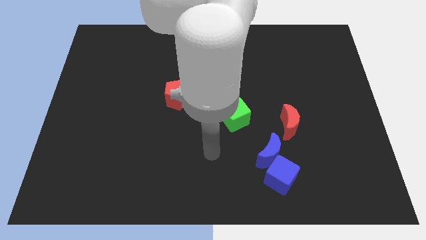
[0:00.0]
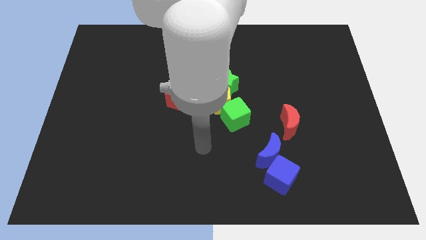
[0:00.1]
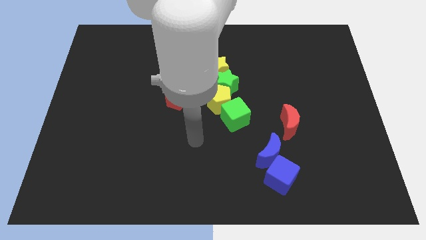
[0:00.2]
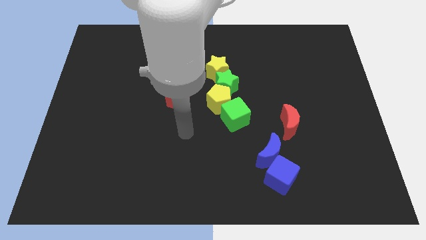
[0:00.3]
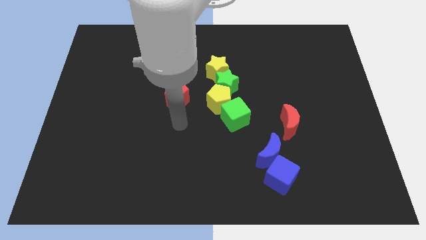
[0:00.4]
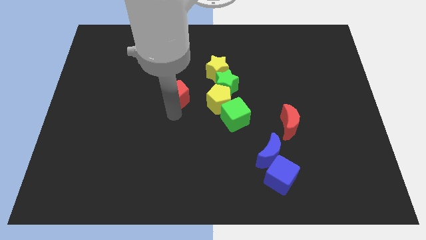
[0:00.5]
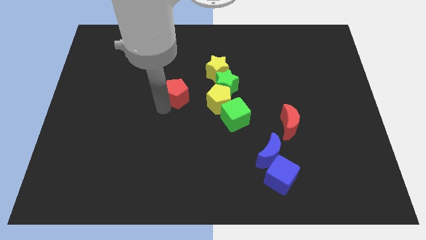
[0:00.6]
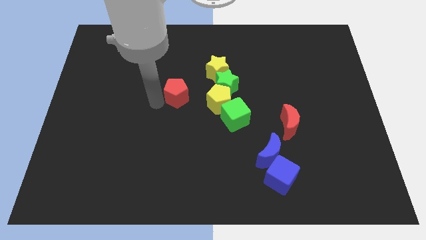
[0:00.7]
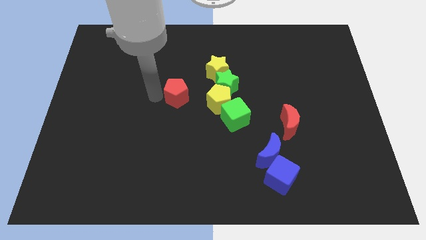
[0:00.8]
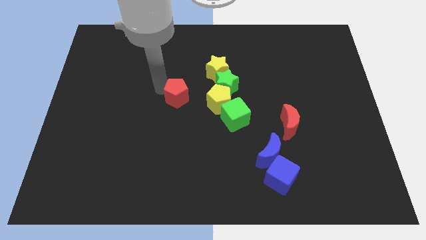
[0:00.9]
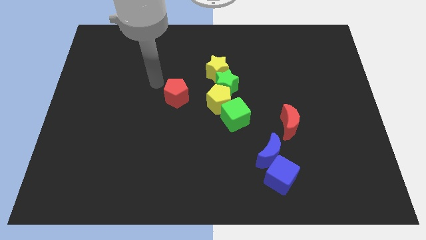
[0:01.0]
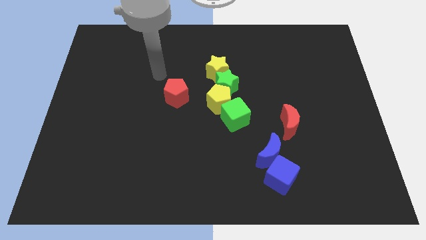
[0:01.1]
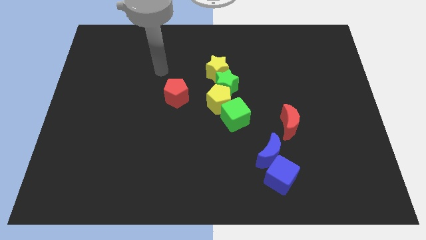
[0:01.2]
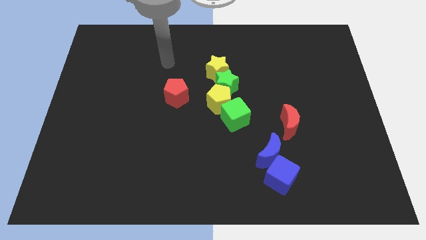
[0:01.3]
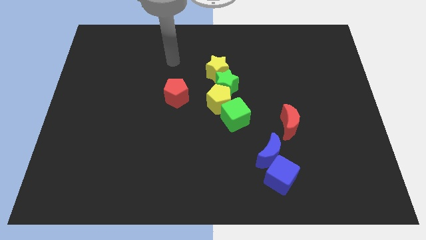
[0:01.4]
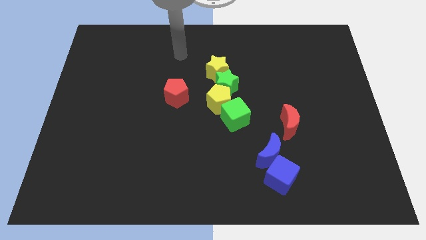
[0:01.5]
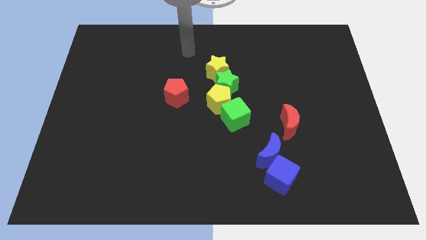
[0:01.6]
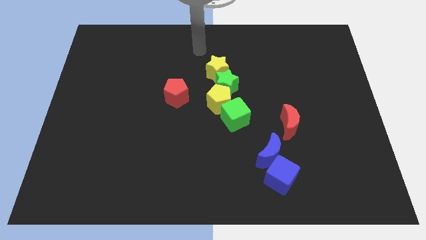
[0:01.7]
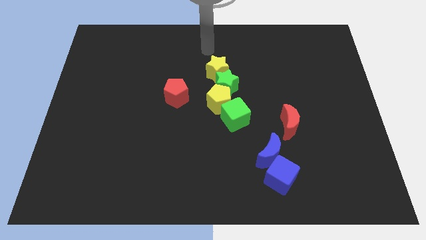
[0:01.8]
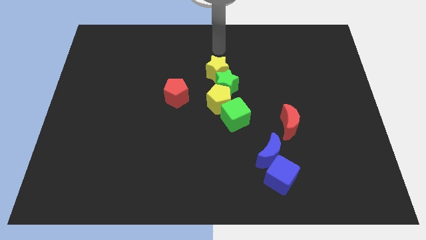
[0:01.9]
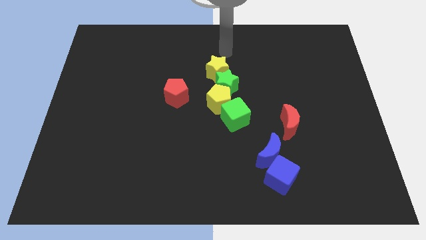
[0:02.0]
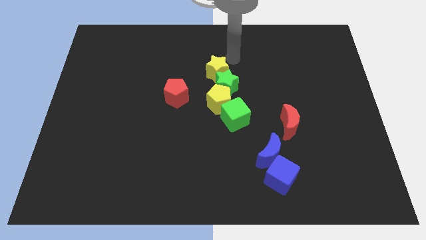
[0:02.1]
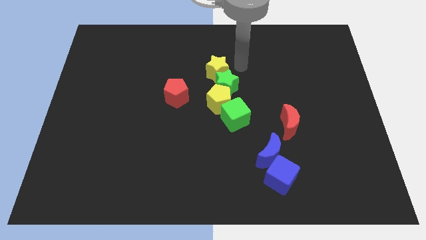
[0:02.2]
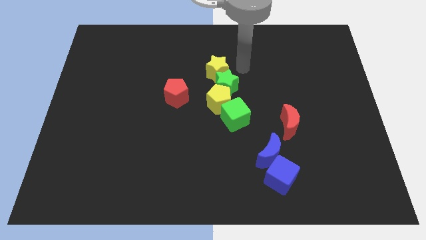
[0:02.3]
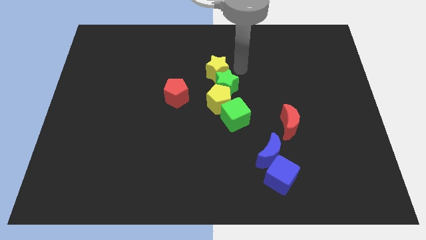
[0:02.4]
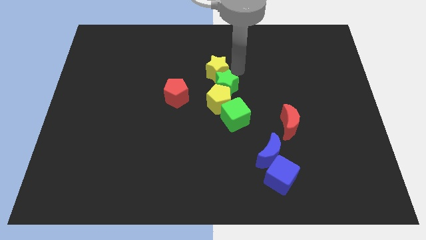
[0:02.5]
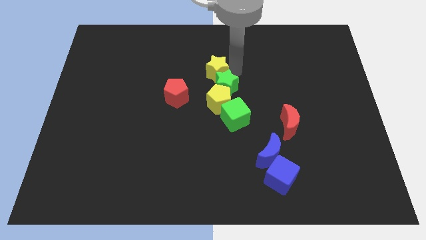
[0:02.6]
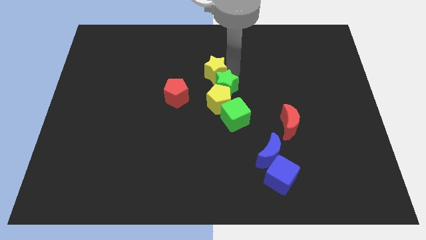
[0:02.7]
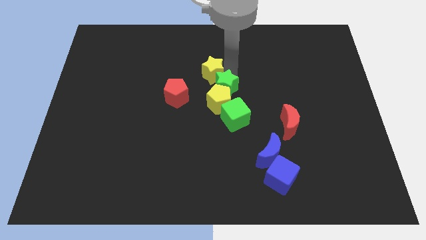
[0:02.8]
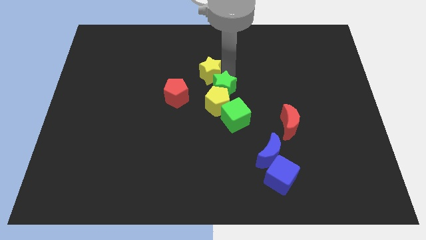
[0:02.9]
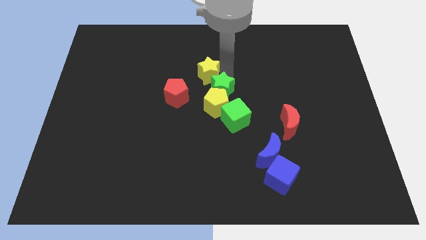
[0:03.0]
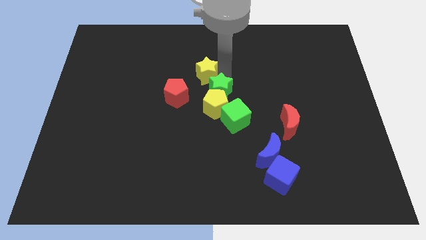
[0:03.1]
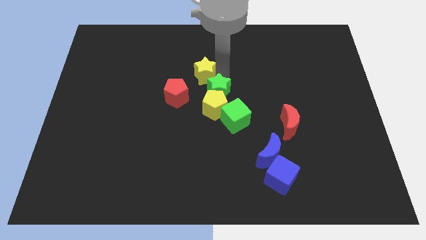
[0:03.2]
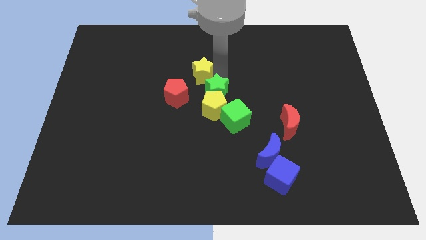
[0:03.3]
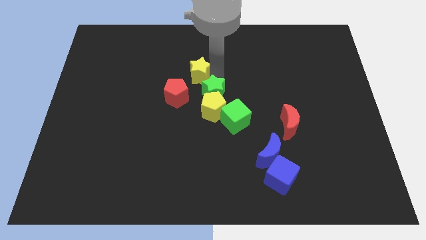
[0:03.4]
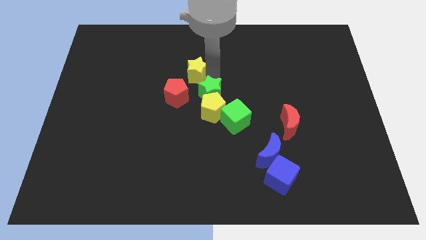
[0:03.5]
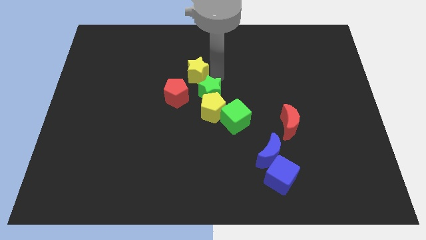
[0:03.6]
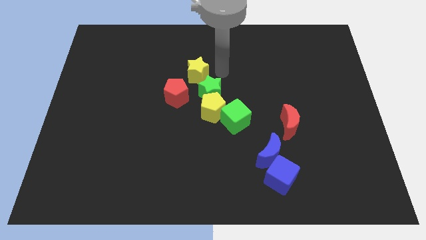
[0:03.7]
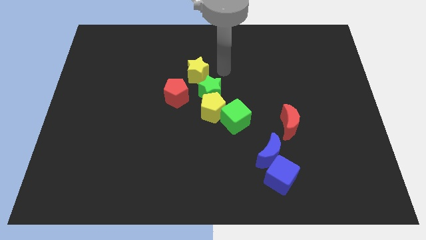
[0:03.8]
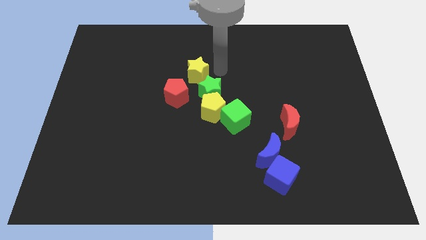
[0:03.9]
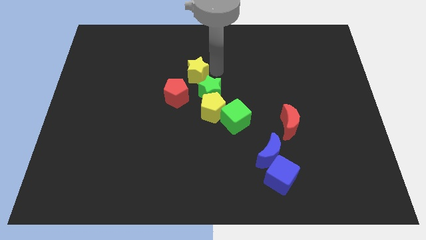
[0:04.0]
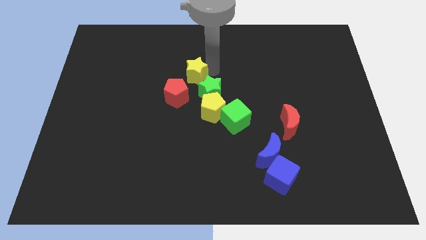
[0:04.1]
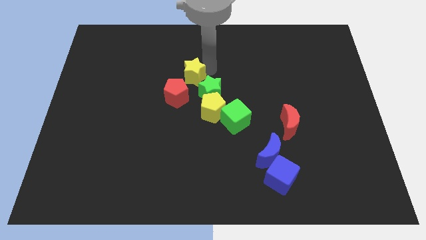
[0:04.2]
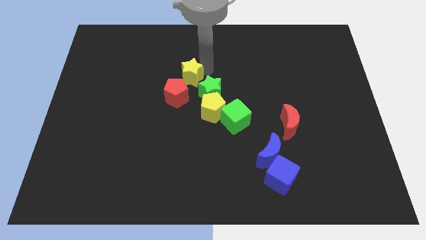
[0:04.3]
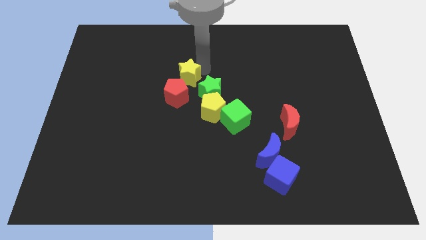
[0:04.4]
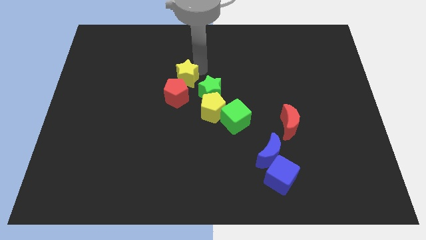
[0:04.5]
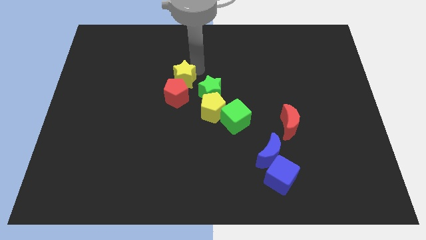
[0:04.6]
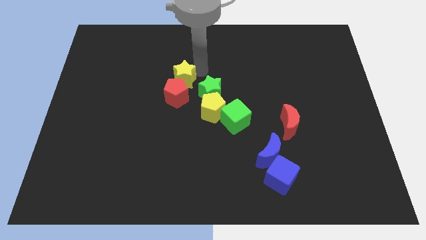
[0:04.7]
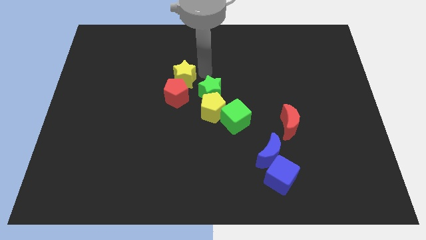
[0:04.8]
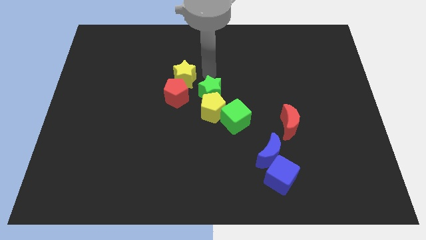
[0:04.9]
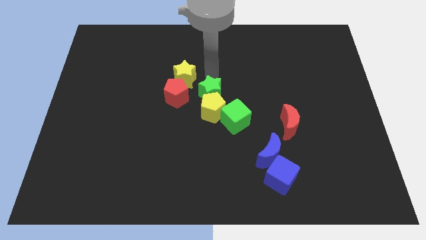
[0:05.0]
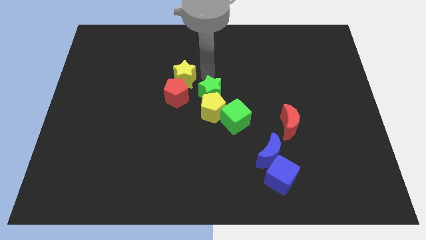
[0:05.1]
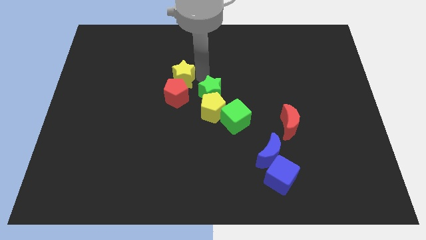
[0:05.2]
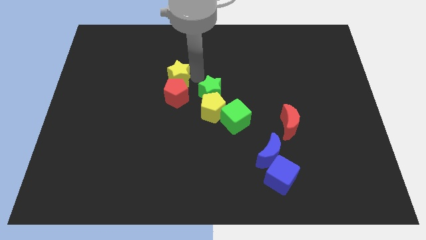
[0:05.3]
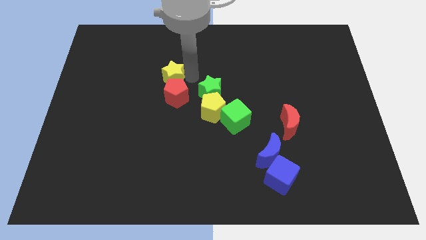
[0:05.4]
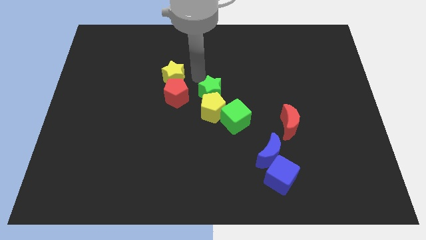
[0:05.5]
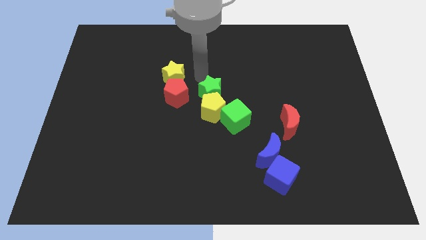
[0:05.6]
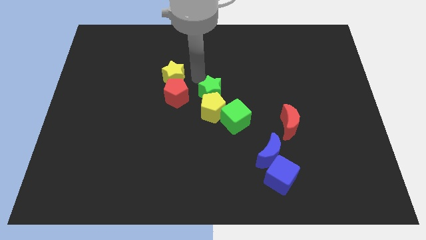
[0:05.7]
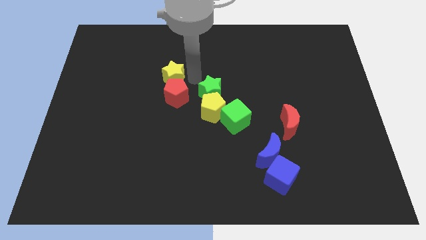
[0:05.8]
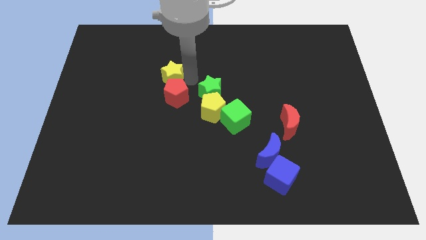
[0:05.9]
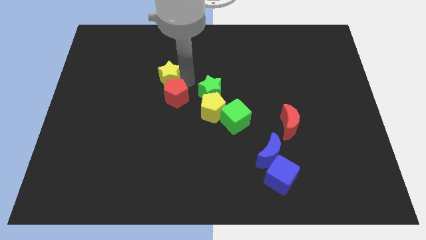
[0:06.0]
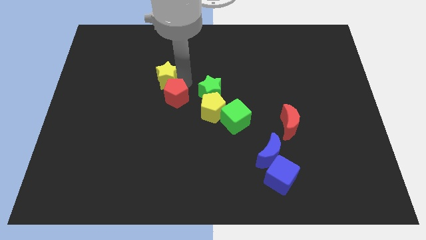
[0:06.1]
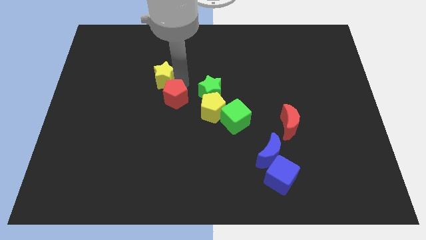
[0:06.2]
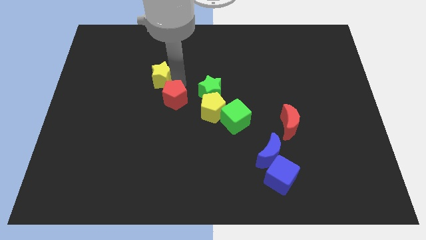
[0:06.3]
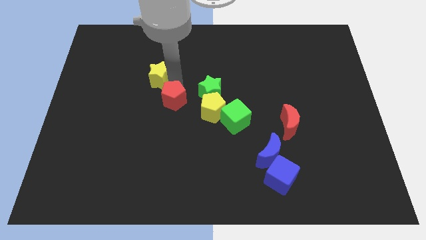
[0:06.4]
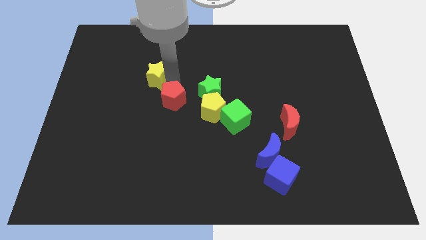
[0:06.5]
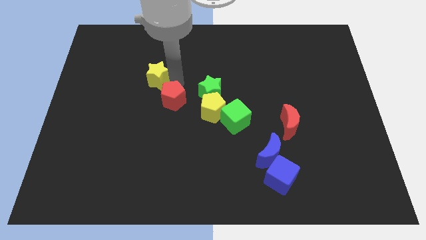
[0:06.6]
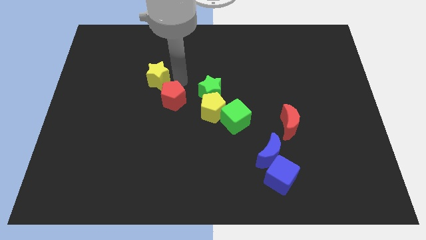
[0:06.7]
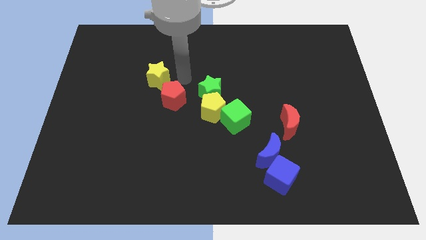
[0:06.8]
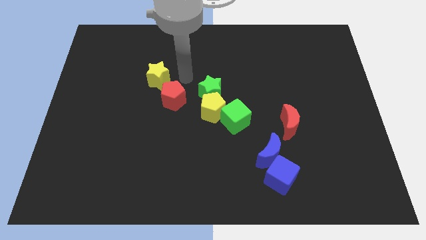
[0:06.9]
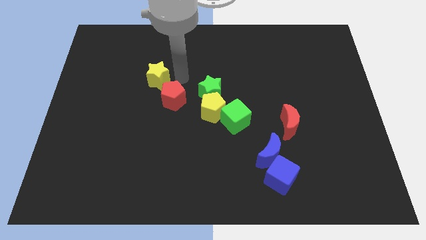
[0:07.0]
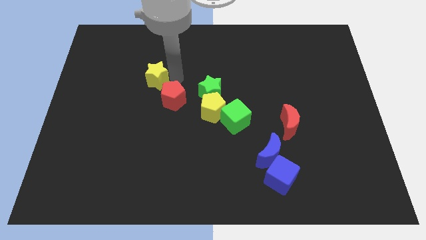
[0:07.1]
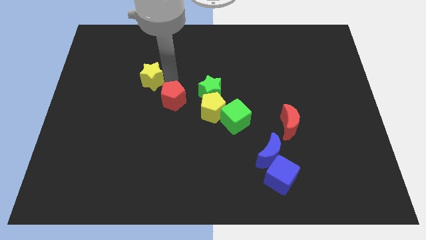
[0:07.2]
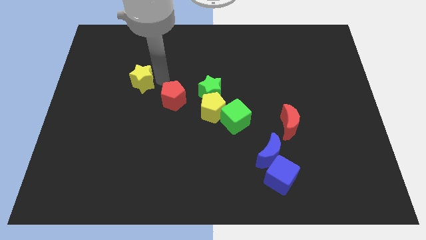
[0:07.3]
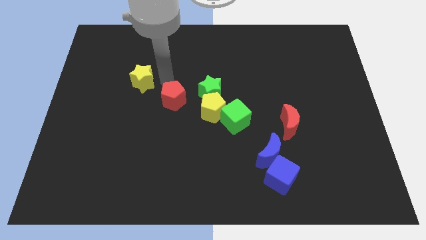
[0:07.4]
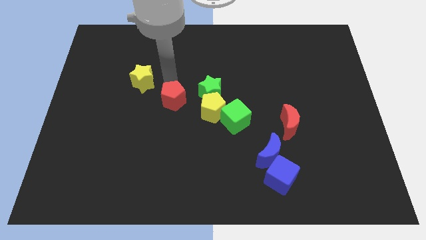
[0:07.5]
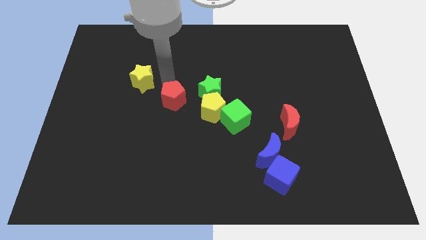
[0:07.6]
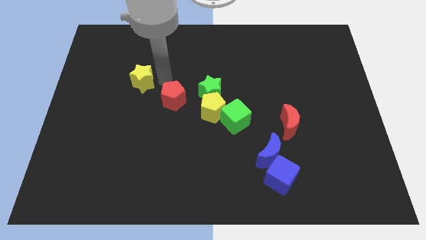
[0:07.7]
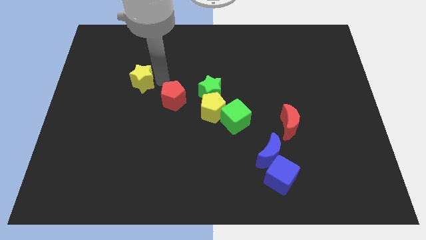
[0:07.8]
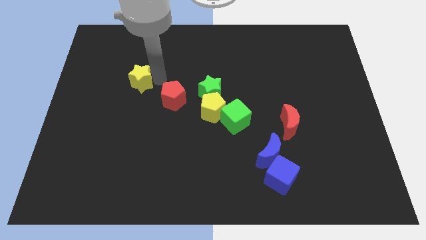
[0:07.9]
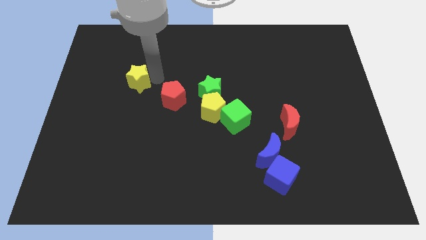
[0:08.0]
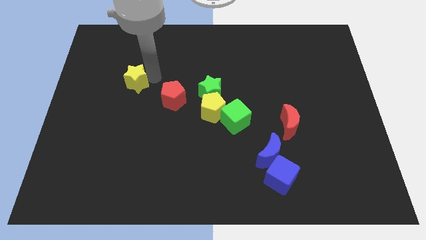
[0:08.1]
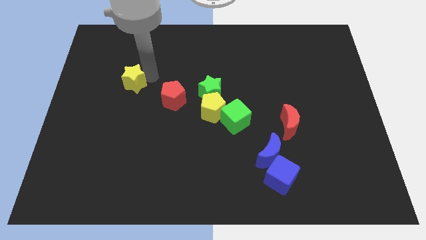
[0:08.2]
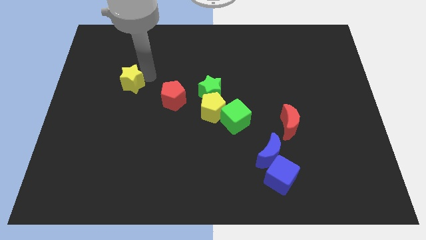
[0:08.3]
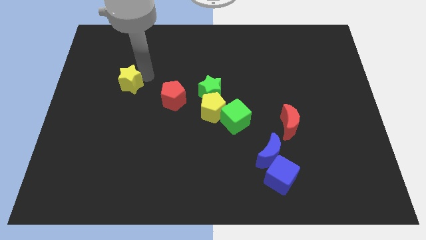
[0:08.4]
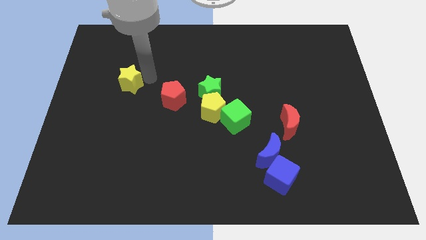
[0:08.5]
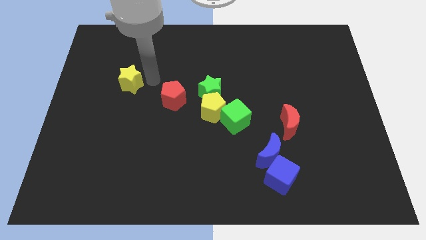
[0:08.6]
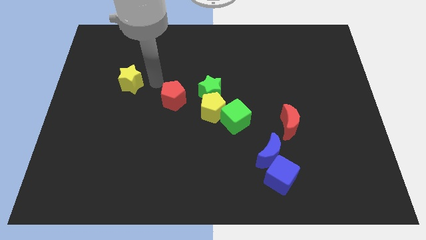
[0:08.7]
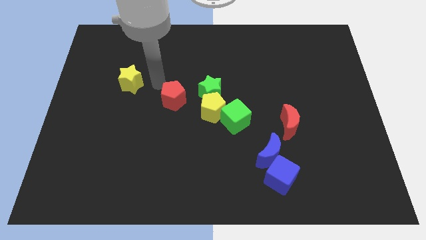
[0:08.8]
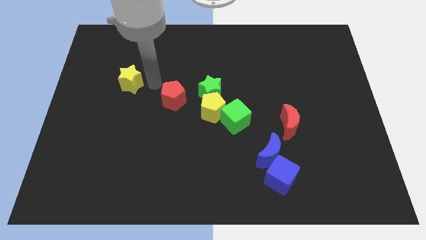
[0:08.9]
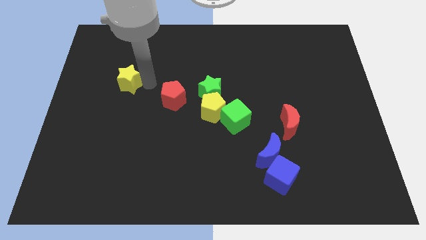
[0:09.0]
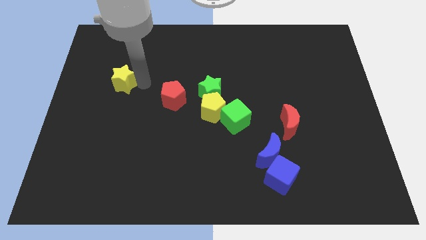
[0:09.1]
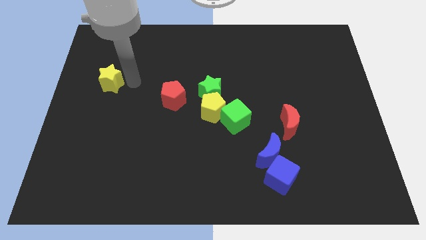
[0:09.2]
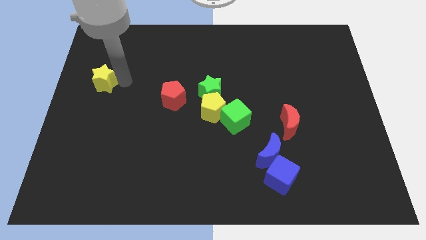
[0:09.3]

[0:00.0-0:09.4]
push the yellow star to the left side
